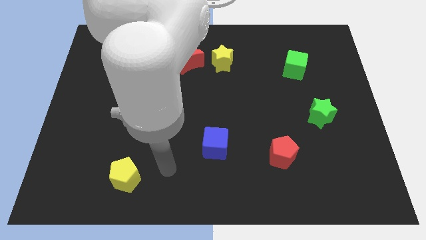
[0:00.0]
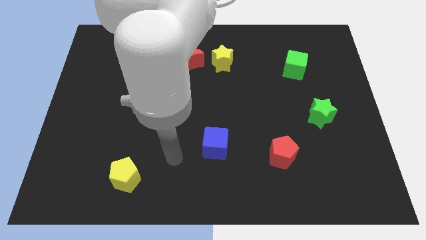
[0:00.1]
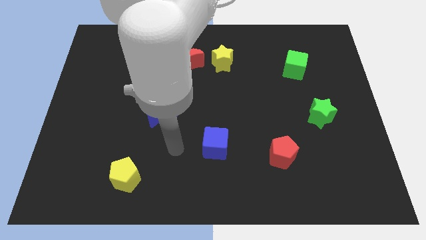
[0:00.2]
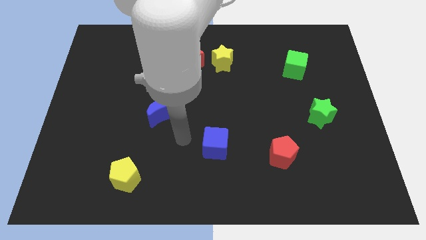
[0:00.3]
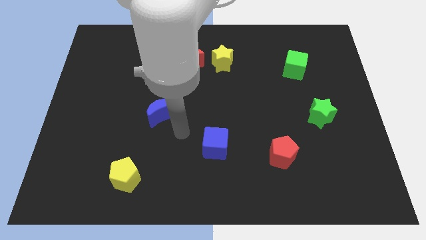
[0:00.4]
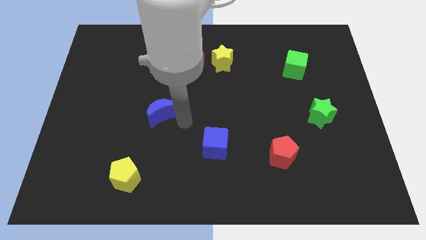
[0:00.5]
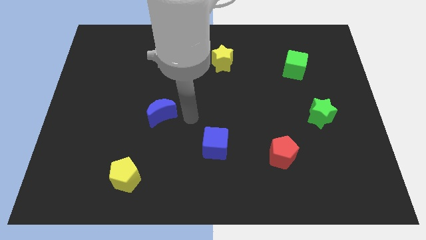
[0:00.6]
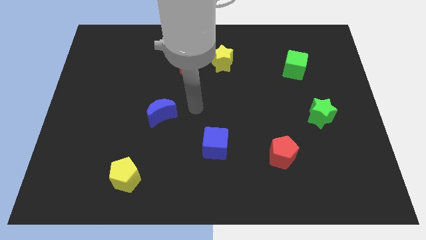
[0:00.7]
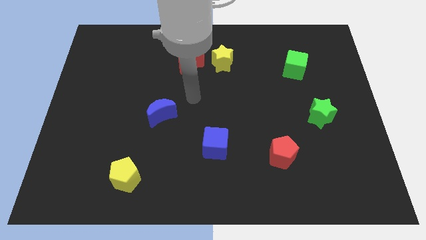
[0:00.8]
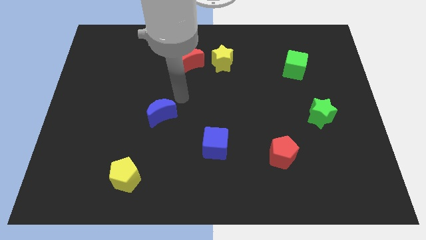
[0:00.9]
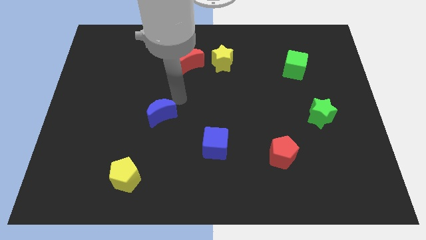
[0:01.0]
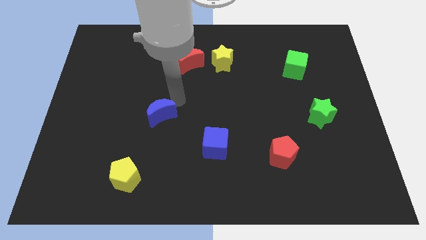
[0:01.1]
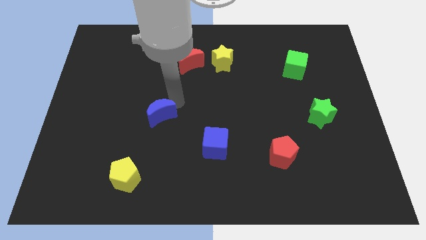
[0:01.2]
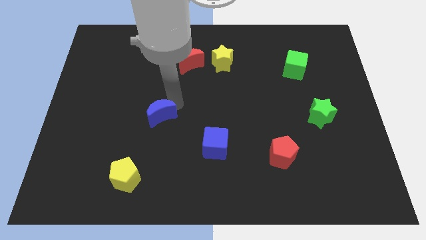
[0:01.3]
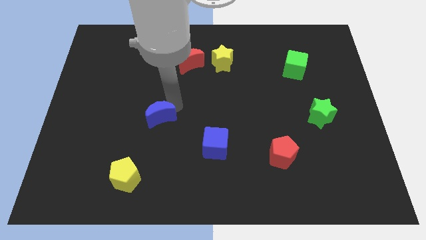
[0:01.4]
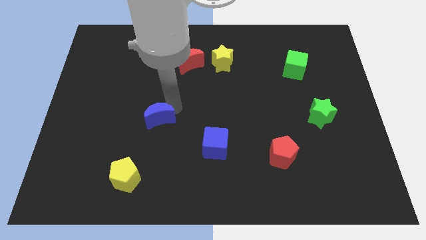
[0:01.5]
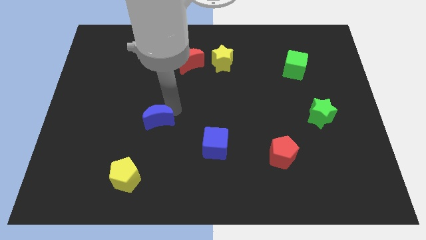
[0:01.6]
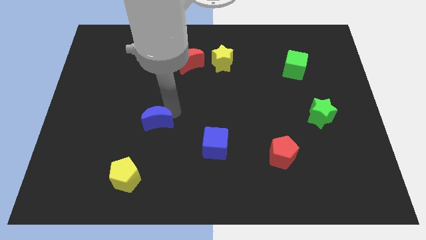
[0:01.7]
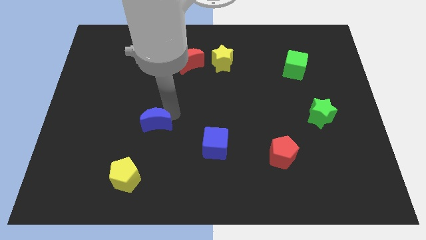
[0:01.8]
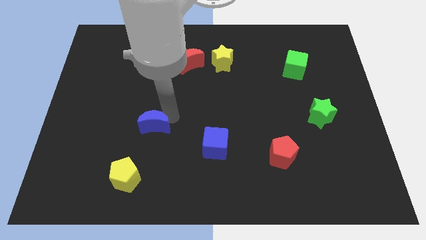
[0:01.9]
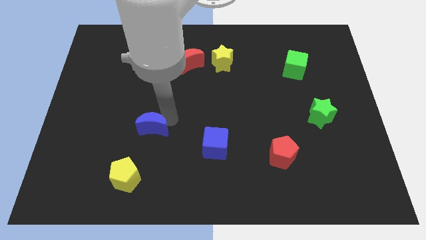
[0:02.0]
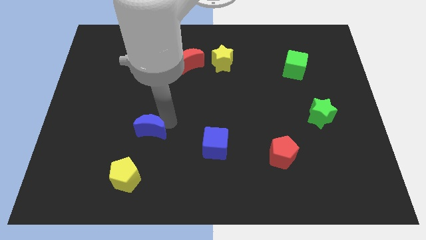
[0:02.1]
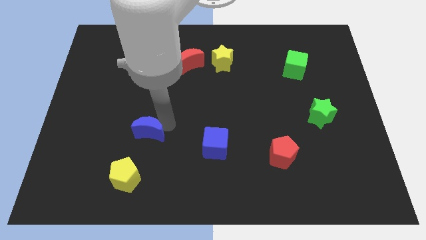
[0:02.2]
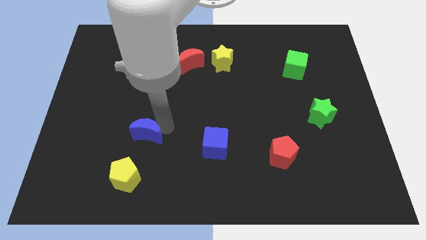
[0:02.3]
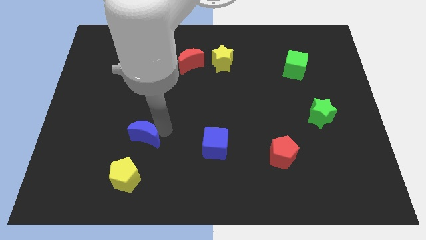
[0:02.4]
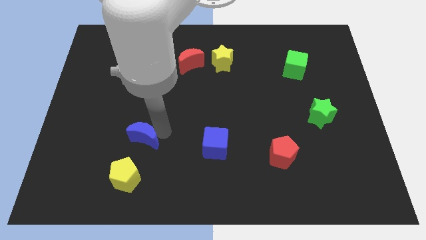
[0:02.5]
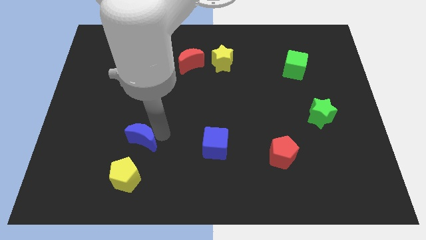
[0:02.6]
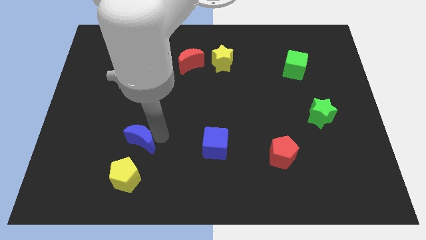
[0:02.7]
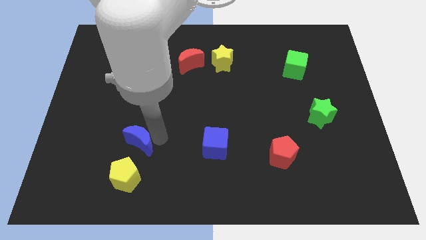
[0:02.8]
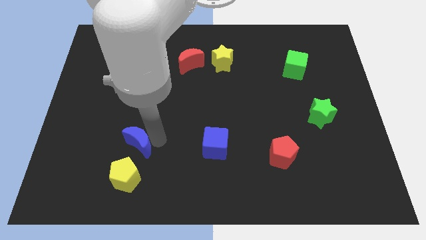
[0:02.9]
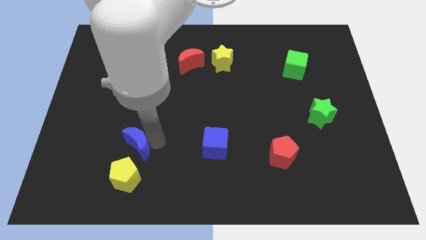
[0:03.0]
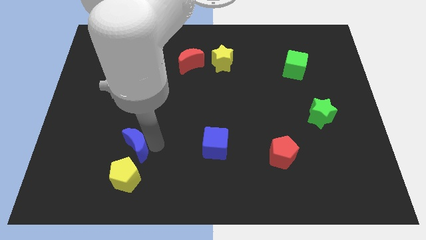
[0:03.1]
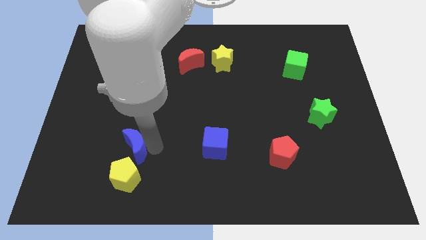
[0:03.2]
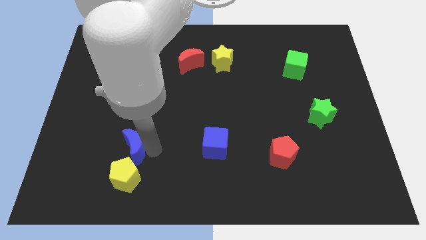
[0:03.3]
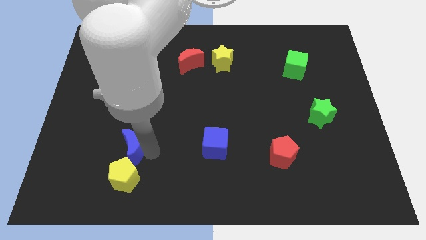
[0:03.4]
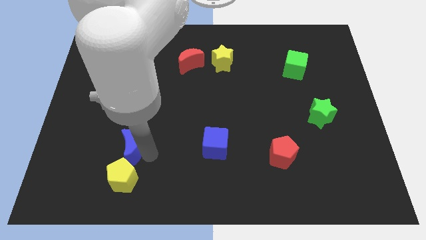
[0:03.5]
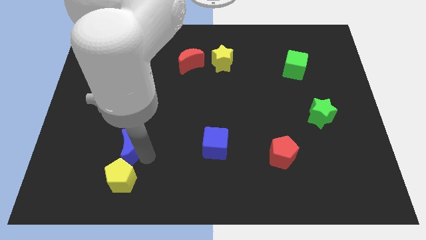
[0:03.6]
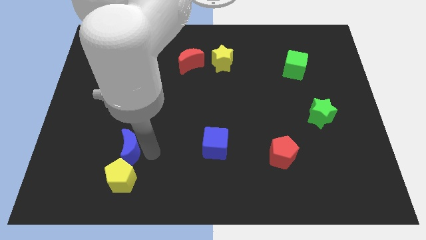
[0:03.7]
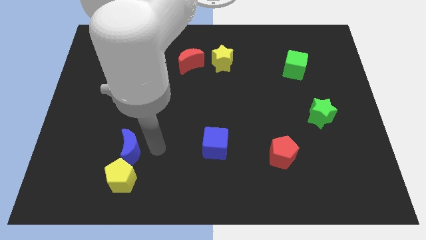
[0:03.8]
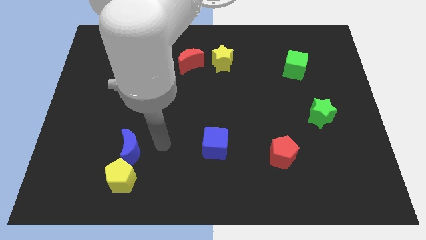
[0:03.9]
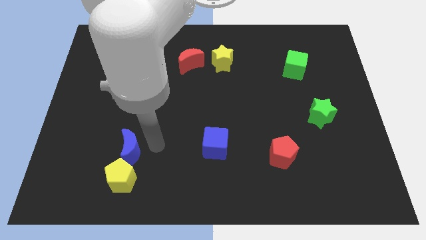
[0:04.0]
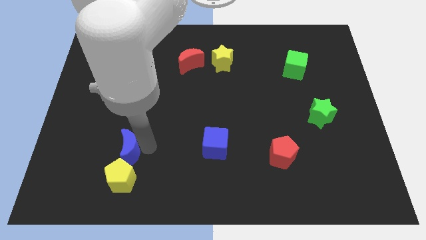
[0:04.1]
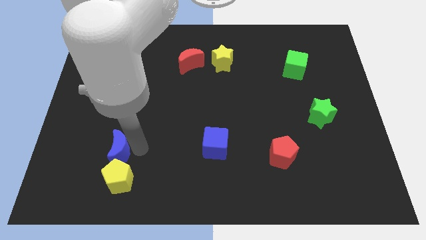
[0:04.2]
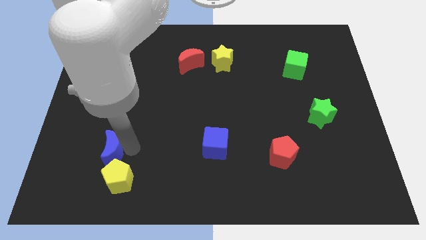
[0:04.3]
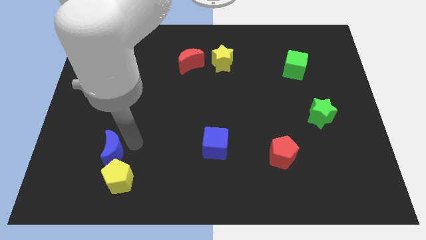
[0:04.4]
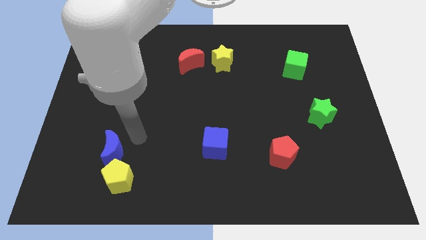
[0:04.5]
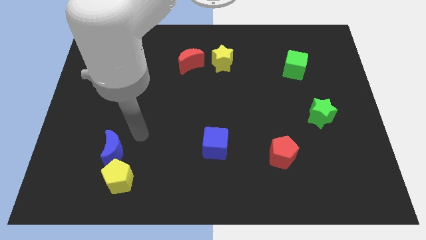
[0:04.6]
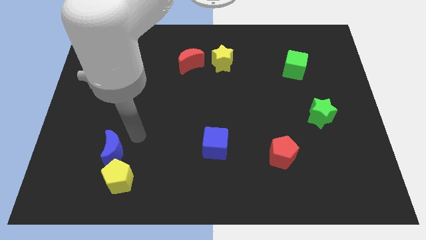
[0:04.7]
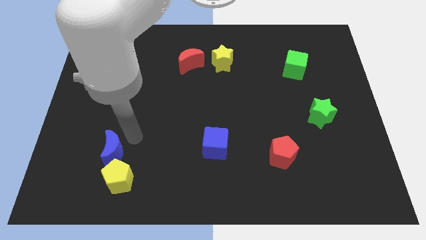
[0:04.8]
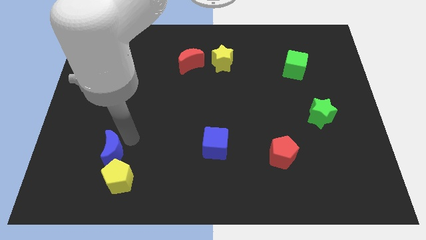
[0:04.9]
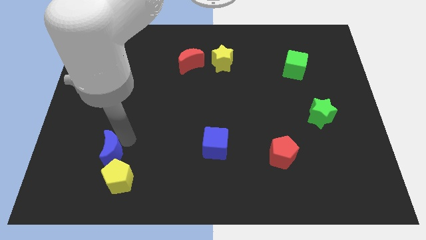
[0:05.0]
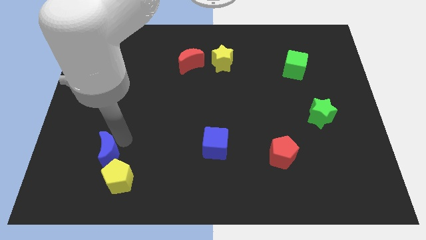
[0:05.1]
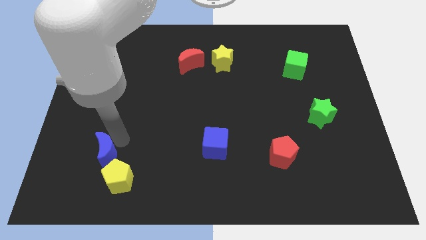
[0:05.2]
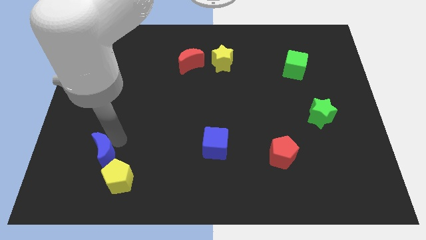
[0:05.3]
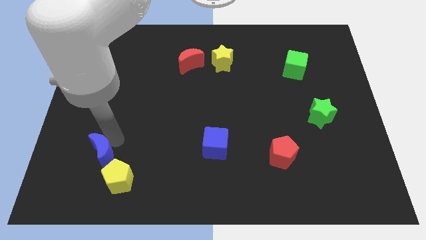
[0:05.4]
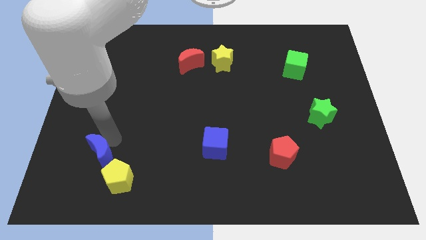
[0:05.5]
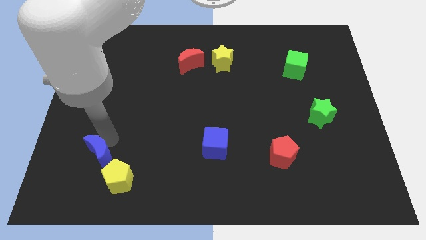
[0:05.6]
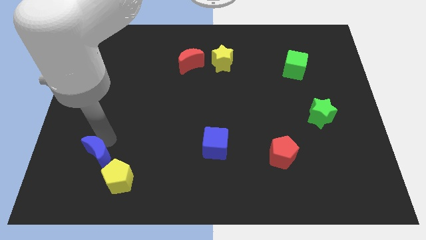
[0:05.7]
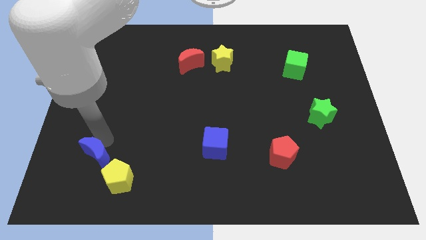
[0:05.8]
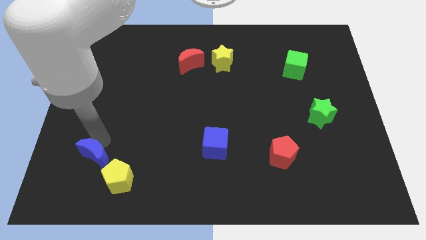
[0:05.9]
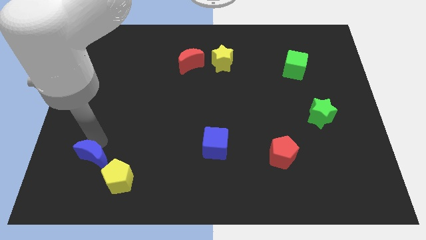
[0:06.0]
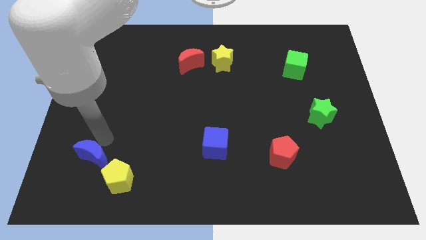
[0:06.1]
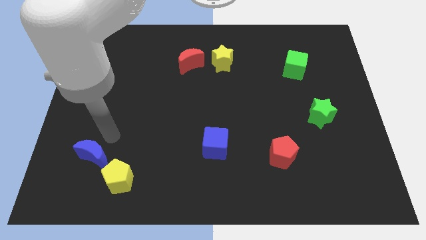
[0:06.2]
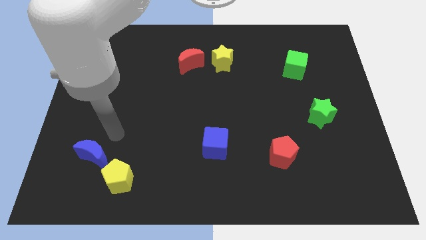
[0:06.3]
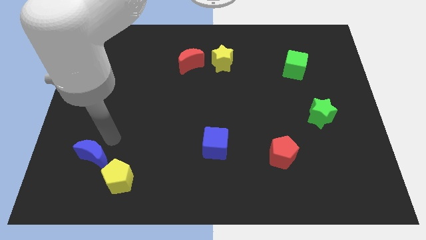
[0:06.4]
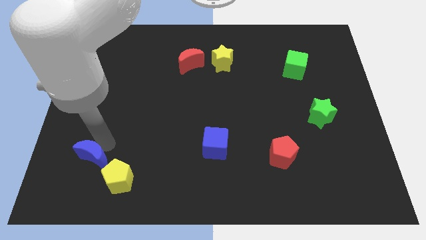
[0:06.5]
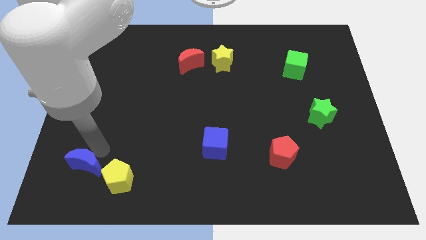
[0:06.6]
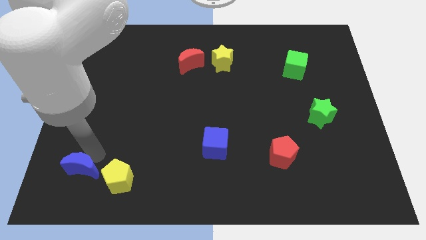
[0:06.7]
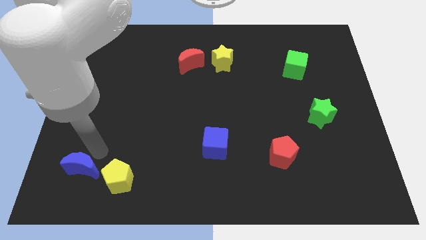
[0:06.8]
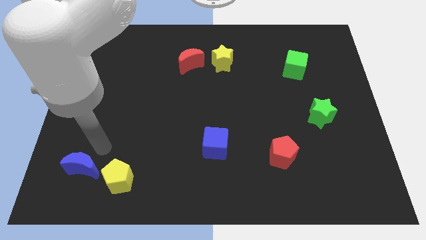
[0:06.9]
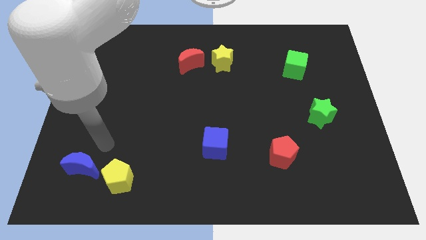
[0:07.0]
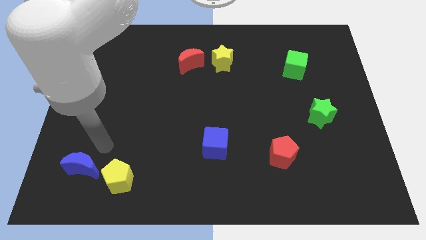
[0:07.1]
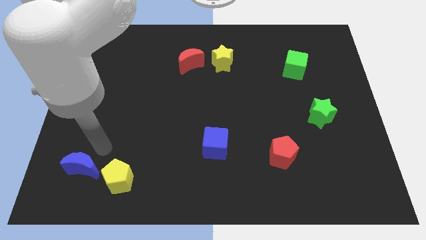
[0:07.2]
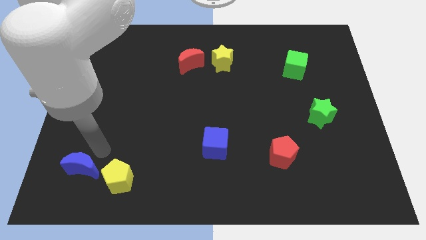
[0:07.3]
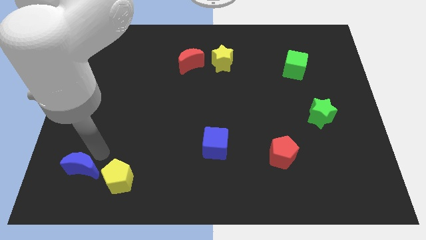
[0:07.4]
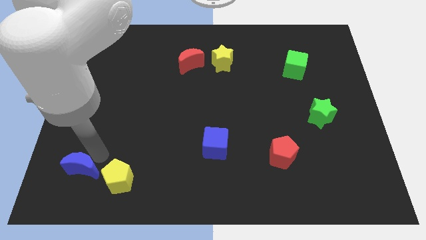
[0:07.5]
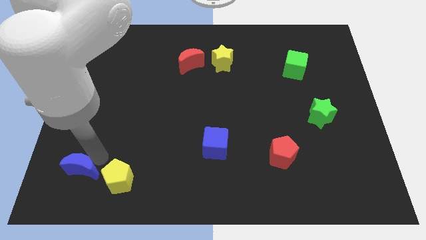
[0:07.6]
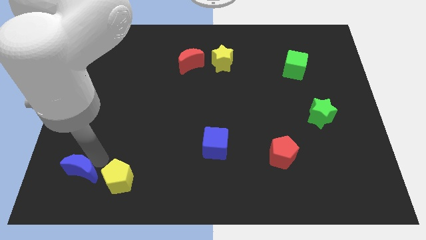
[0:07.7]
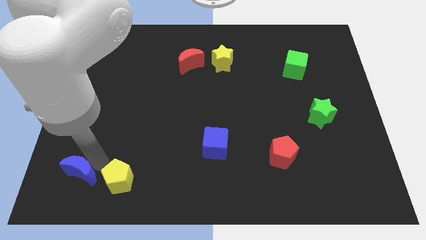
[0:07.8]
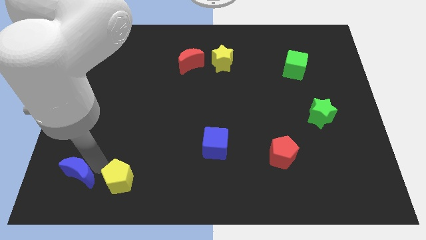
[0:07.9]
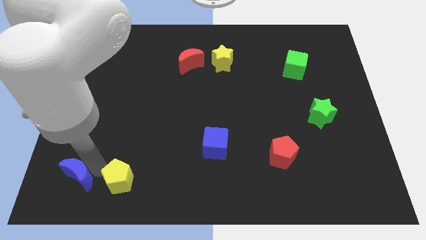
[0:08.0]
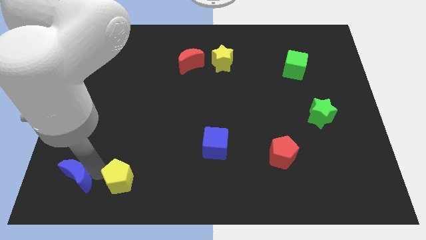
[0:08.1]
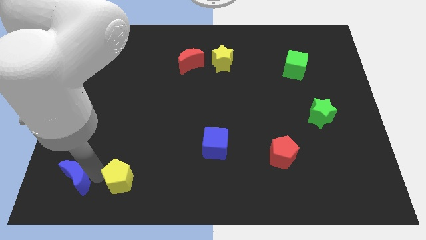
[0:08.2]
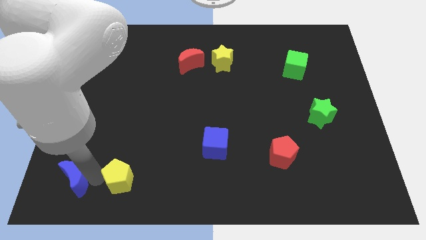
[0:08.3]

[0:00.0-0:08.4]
slide the blue moon to the bottom left corner
